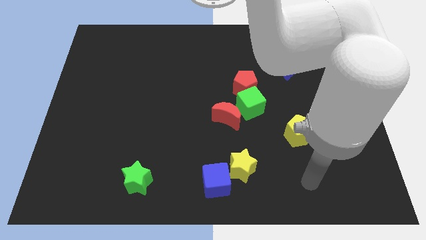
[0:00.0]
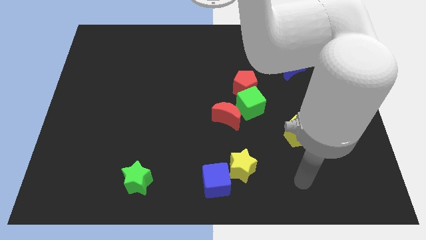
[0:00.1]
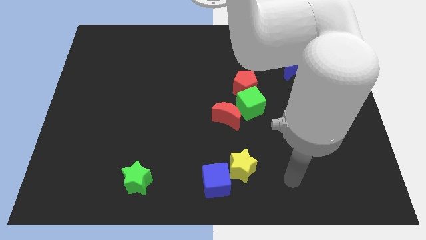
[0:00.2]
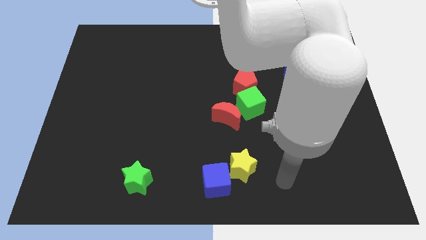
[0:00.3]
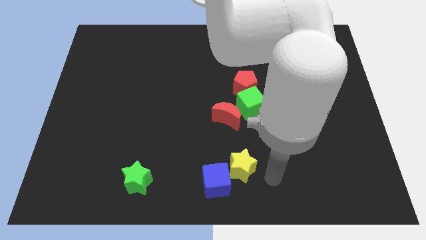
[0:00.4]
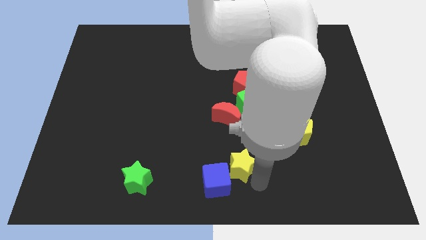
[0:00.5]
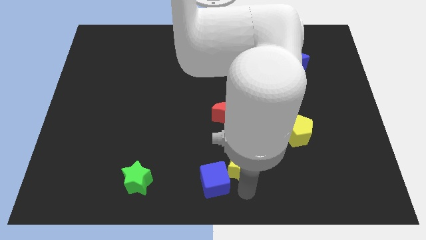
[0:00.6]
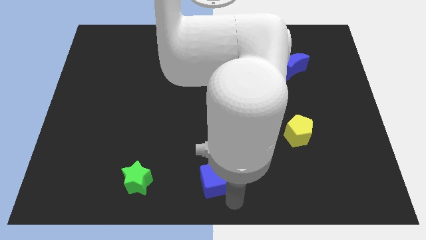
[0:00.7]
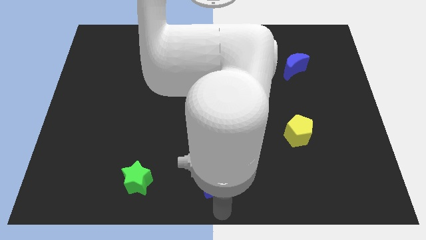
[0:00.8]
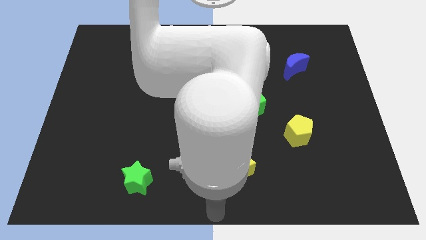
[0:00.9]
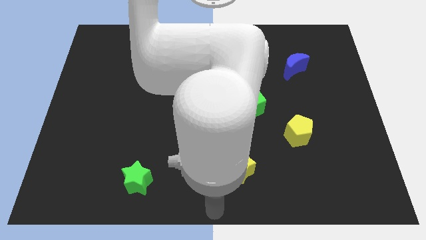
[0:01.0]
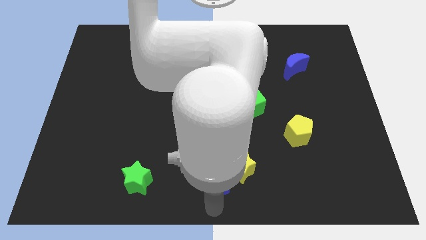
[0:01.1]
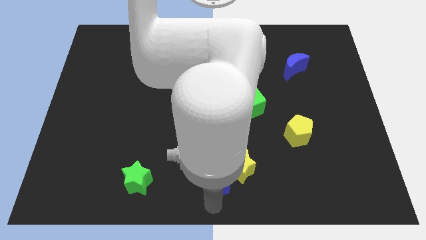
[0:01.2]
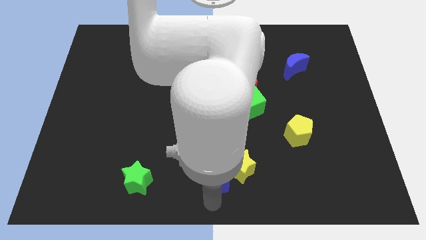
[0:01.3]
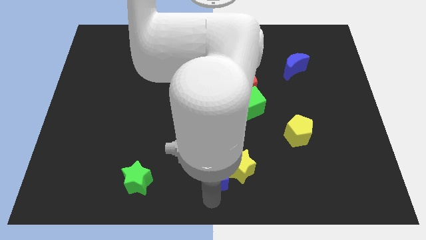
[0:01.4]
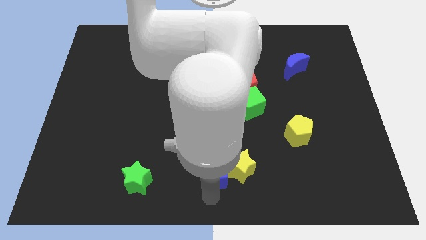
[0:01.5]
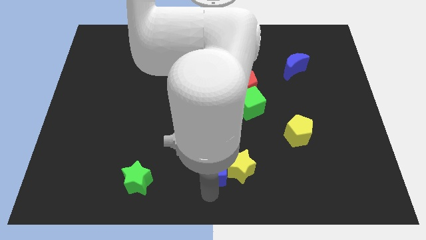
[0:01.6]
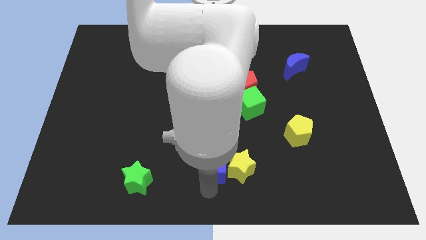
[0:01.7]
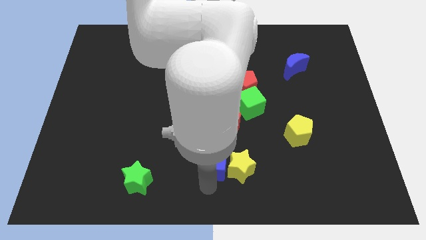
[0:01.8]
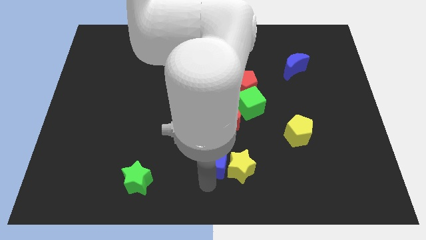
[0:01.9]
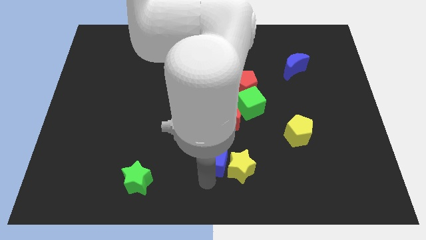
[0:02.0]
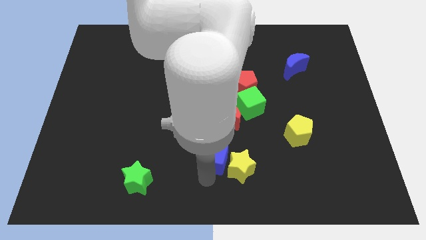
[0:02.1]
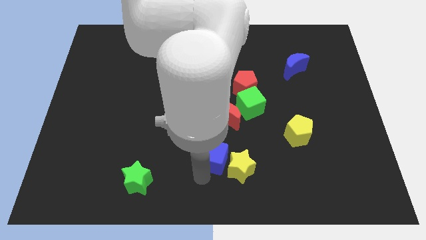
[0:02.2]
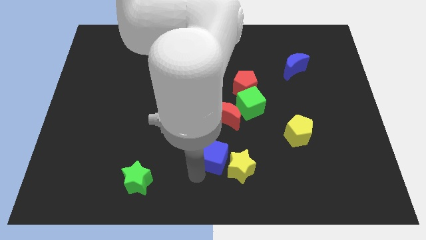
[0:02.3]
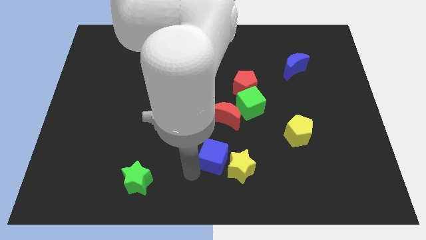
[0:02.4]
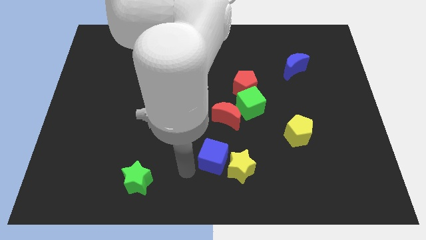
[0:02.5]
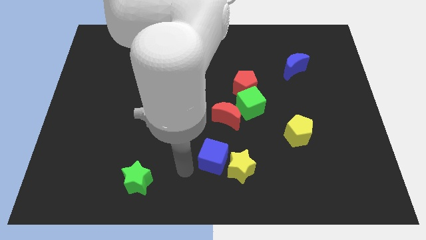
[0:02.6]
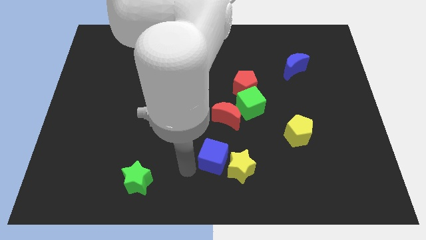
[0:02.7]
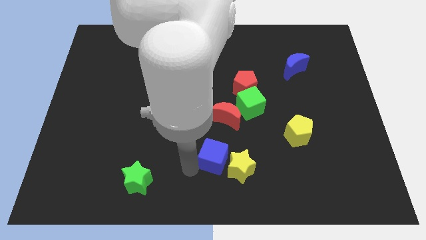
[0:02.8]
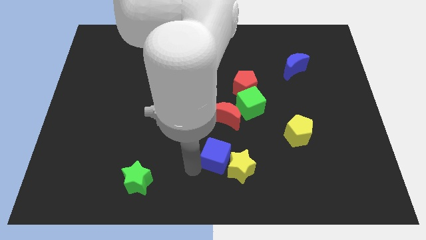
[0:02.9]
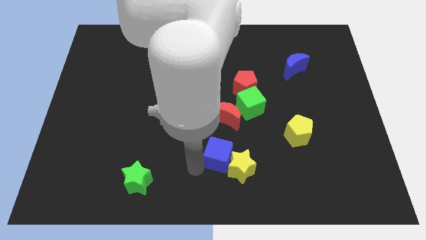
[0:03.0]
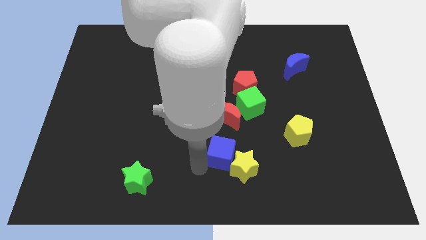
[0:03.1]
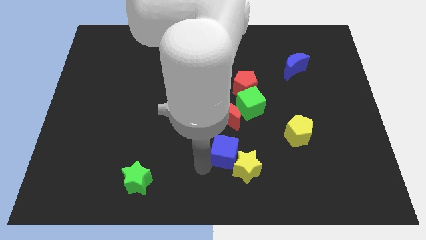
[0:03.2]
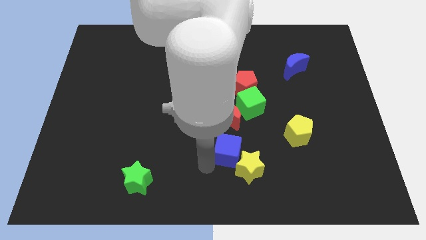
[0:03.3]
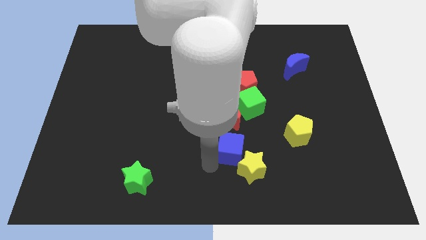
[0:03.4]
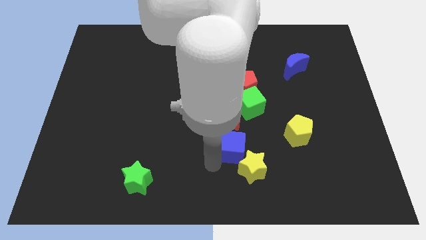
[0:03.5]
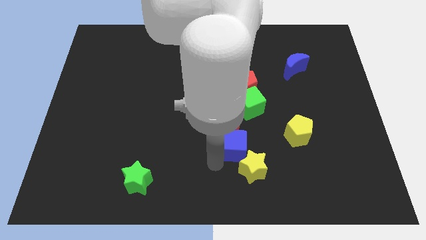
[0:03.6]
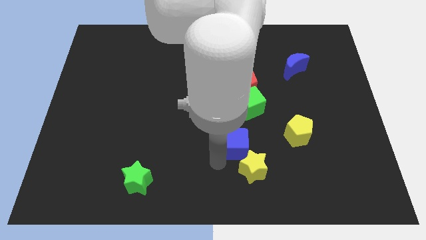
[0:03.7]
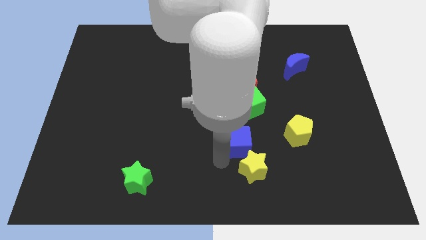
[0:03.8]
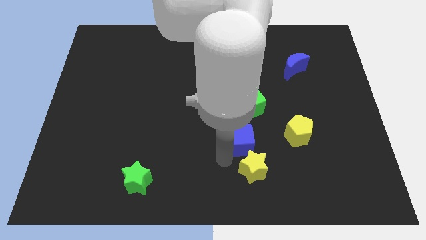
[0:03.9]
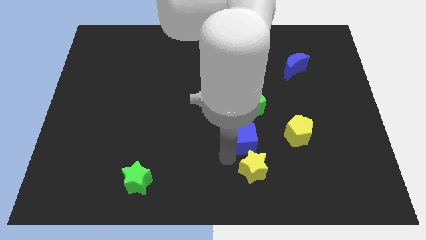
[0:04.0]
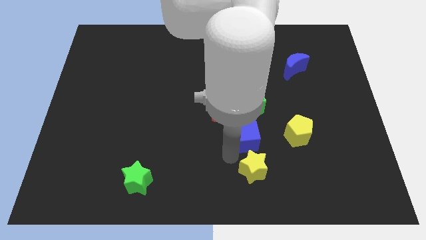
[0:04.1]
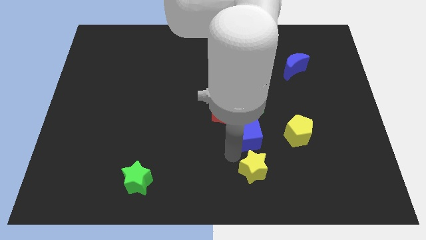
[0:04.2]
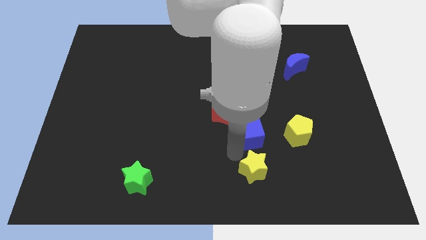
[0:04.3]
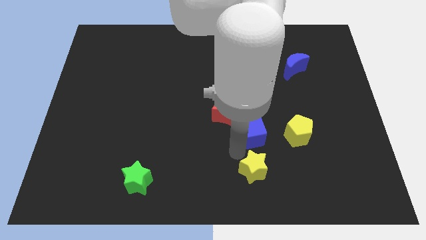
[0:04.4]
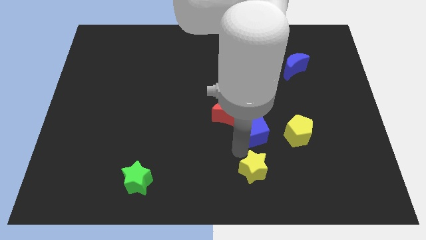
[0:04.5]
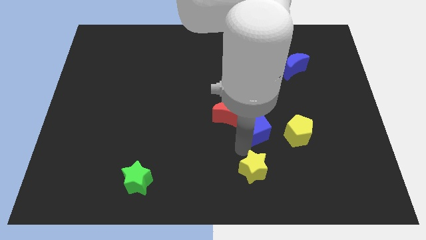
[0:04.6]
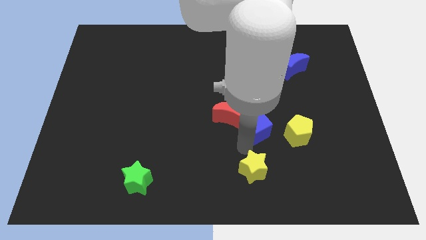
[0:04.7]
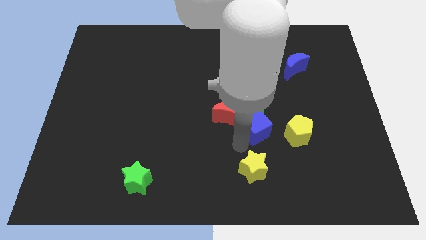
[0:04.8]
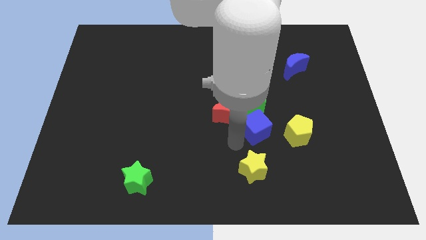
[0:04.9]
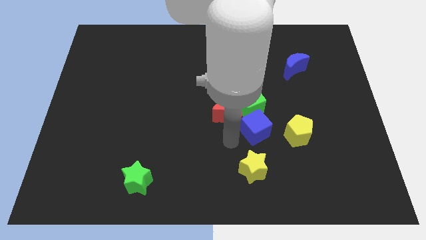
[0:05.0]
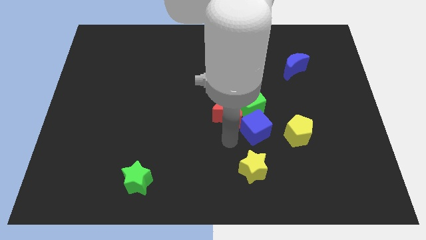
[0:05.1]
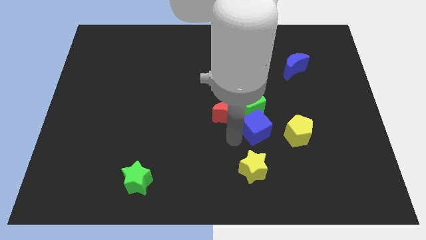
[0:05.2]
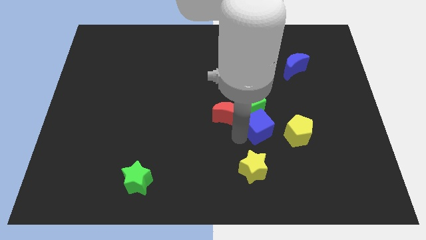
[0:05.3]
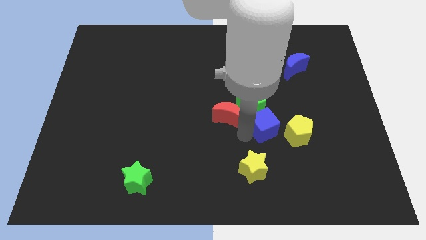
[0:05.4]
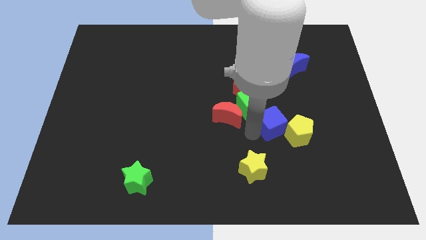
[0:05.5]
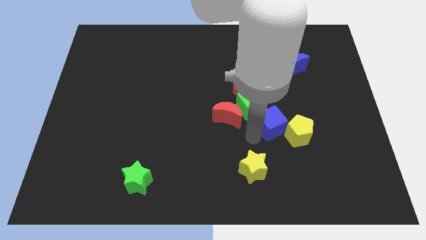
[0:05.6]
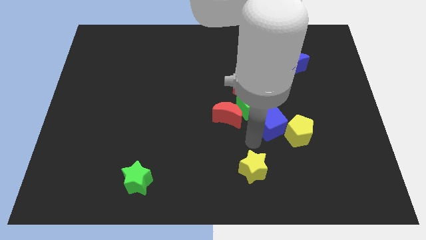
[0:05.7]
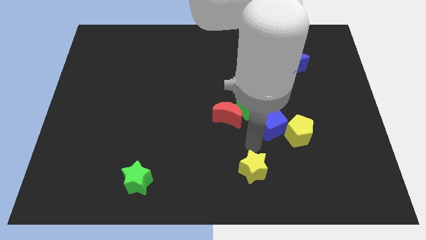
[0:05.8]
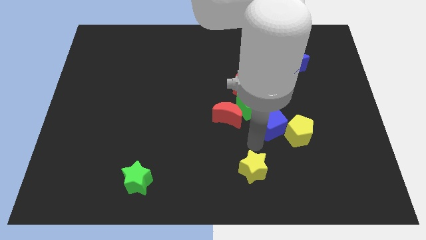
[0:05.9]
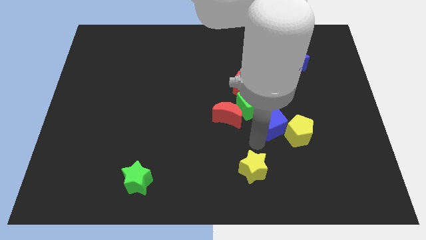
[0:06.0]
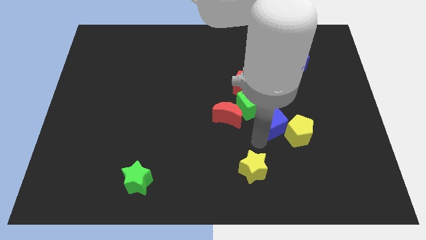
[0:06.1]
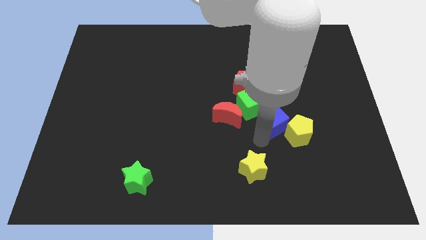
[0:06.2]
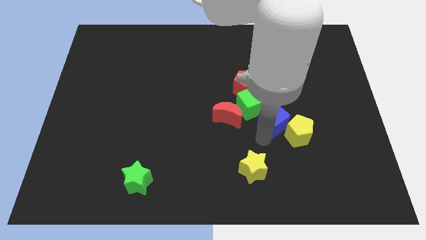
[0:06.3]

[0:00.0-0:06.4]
put the blue cube just right of the green cube

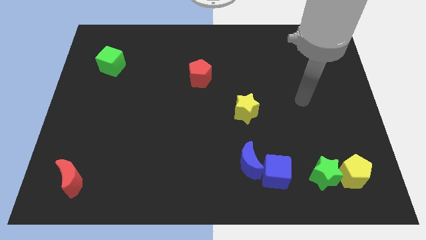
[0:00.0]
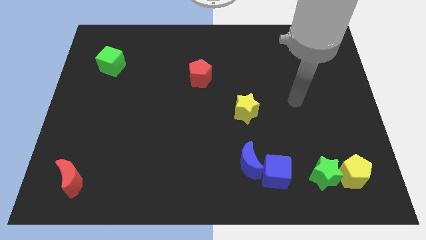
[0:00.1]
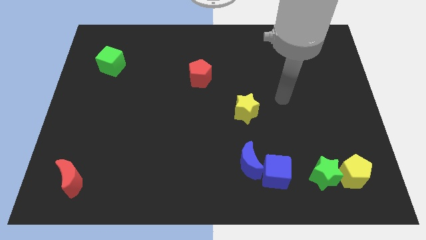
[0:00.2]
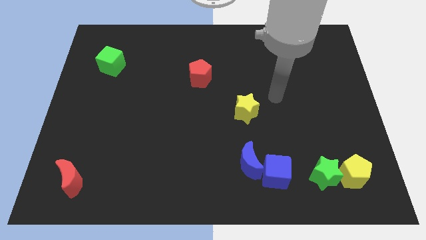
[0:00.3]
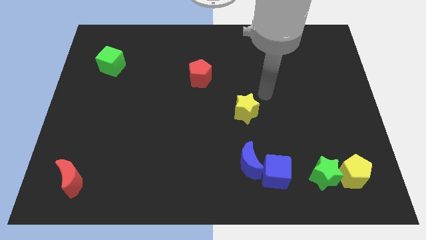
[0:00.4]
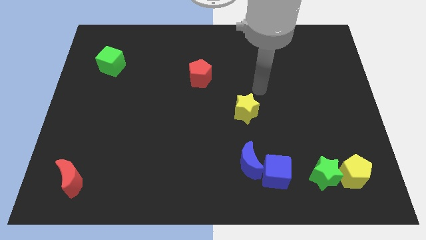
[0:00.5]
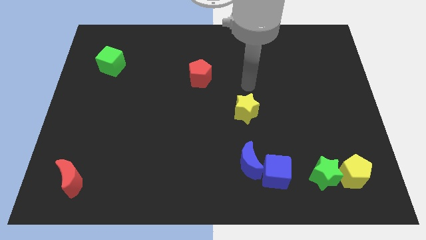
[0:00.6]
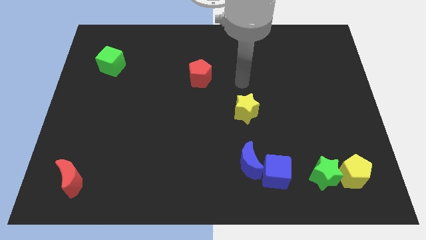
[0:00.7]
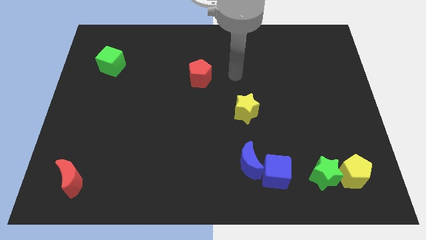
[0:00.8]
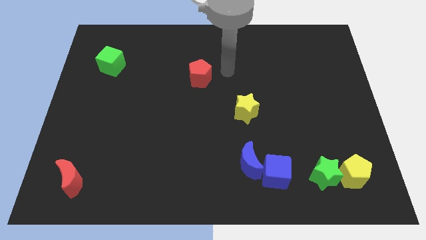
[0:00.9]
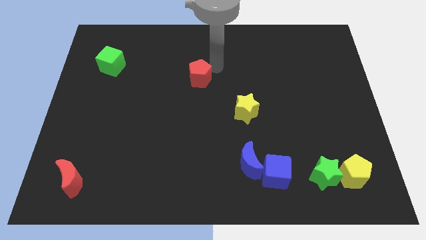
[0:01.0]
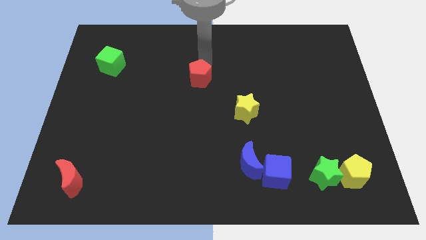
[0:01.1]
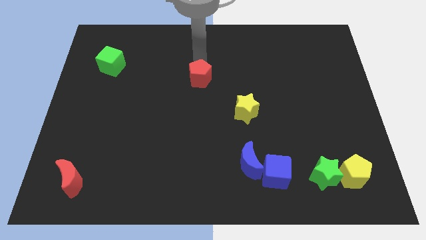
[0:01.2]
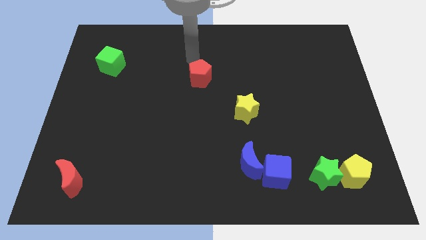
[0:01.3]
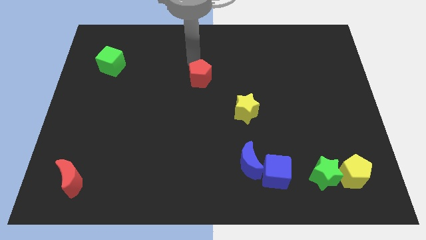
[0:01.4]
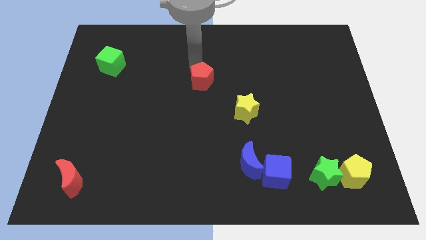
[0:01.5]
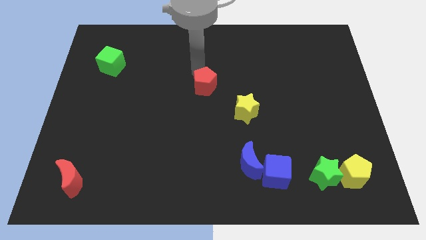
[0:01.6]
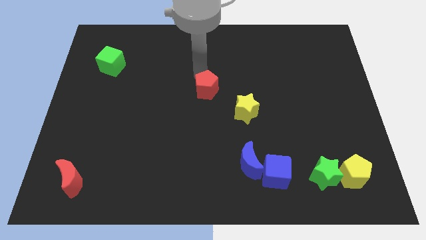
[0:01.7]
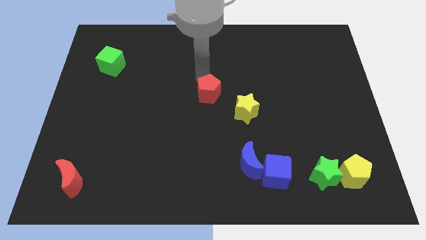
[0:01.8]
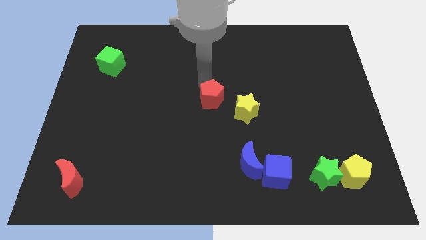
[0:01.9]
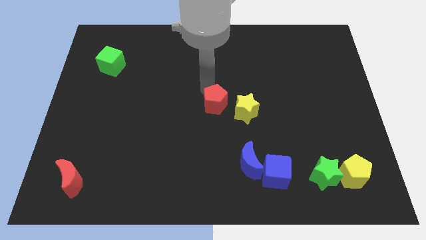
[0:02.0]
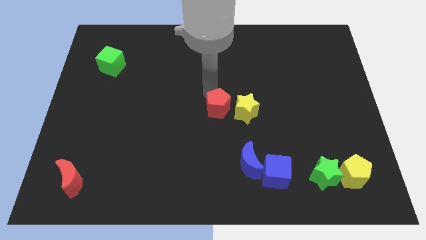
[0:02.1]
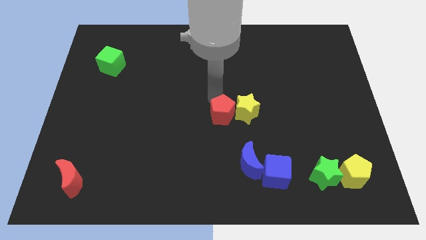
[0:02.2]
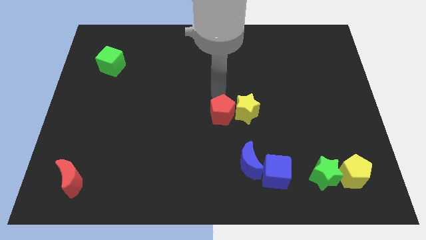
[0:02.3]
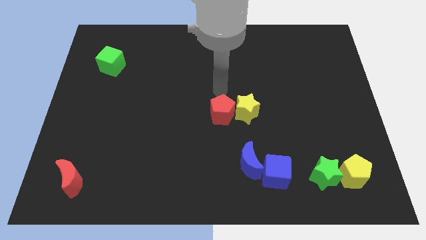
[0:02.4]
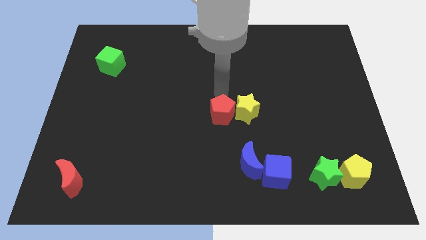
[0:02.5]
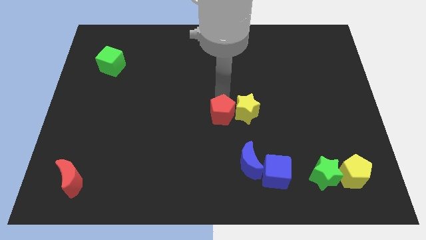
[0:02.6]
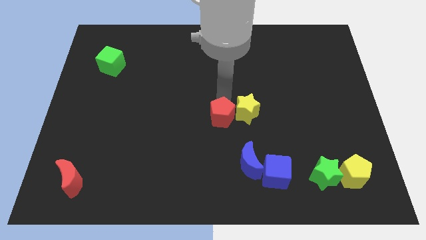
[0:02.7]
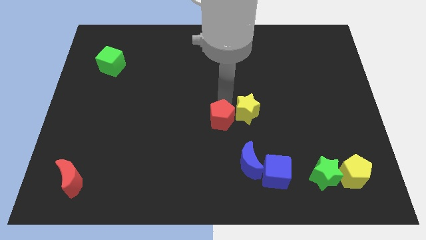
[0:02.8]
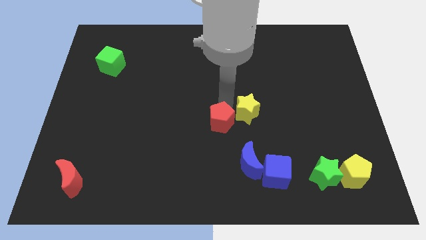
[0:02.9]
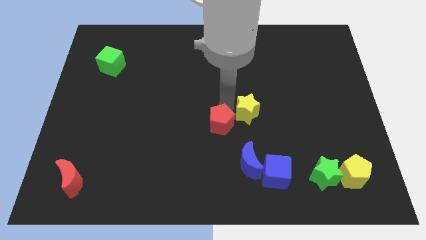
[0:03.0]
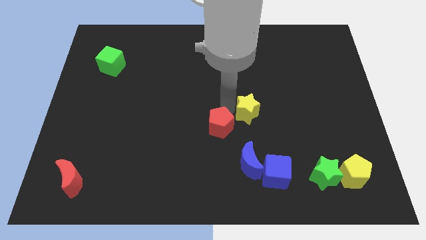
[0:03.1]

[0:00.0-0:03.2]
slide the red pentagon diagonally up and to the left of the blue moon
